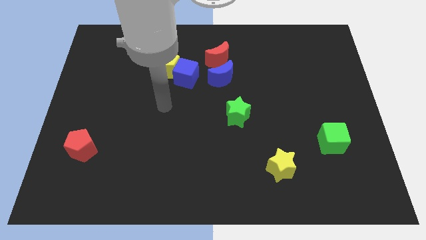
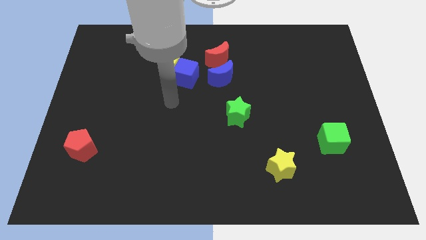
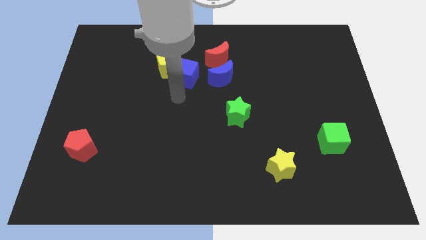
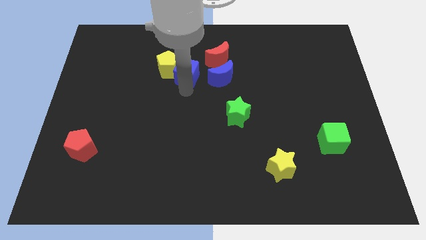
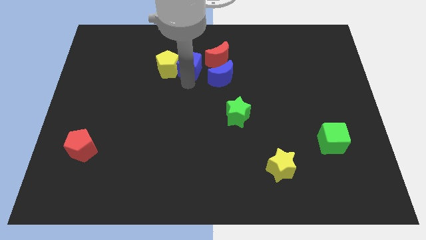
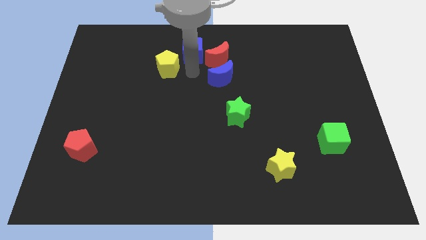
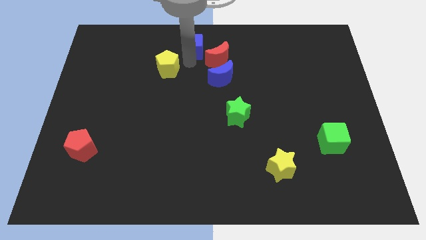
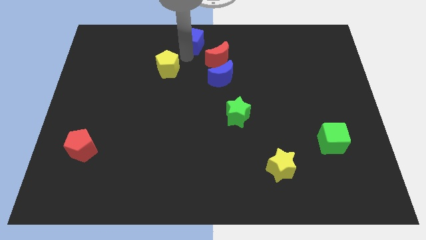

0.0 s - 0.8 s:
move the yellow pentagon away from the blue cube

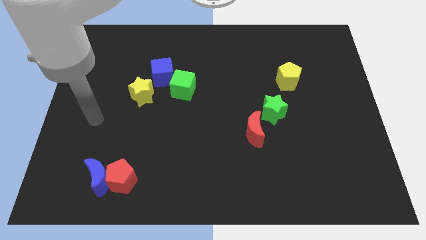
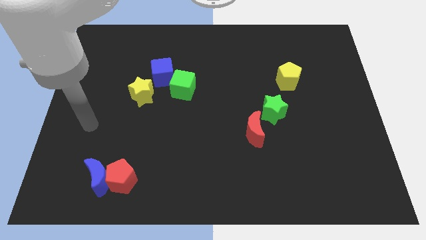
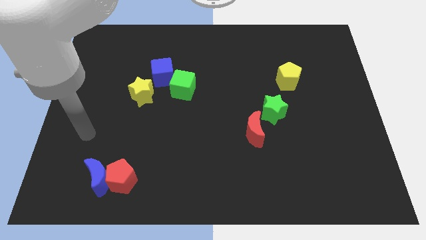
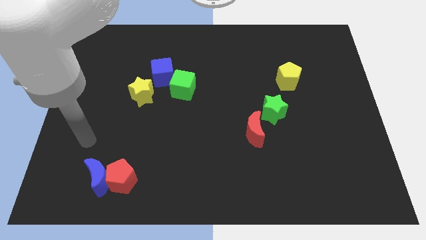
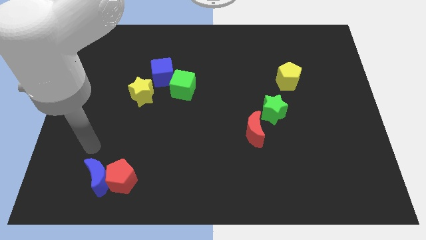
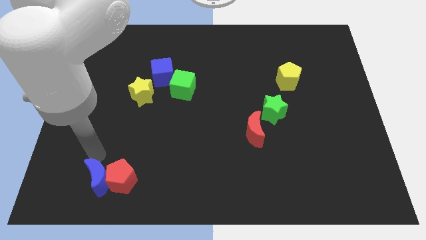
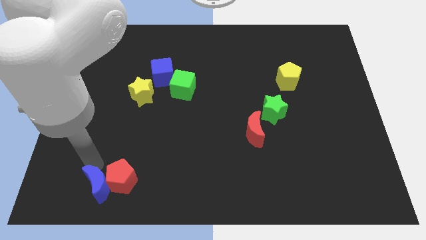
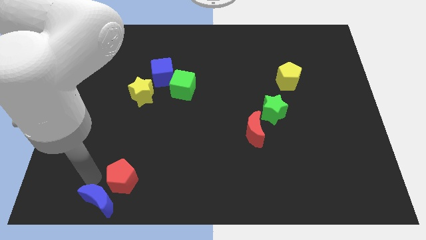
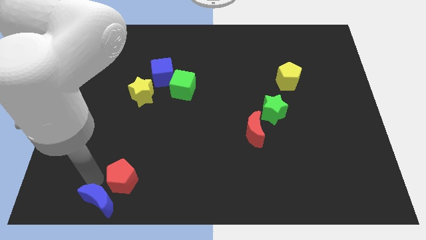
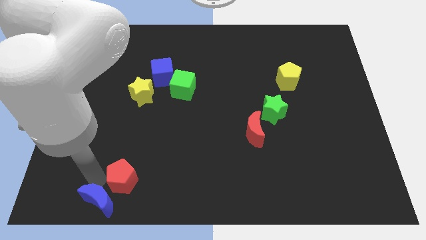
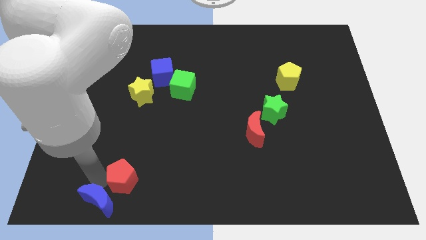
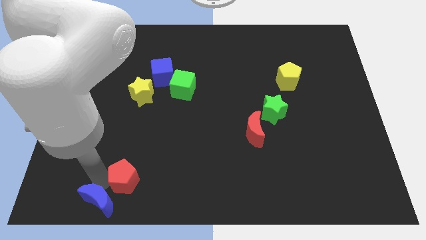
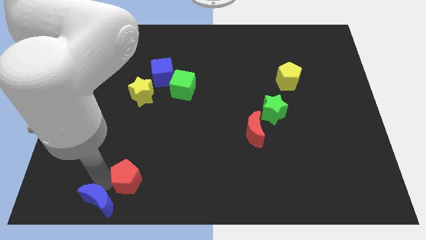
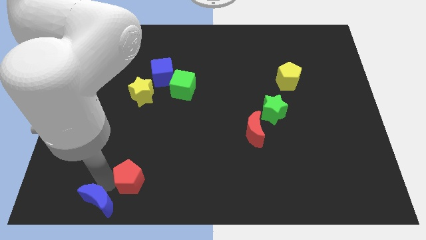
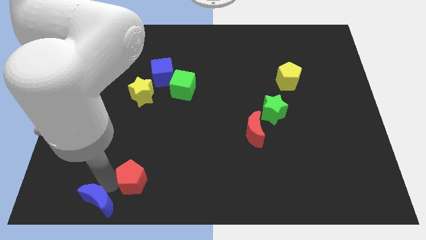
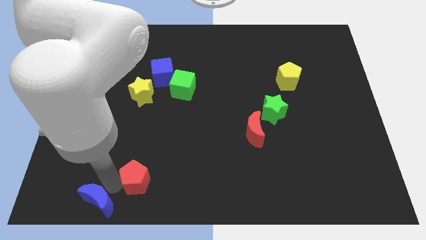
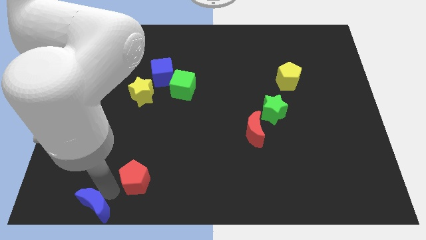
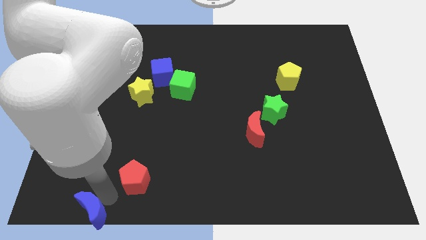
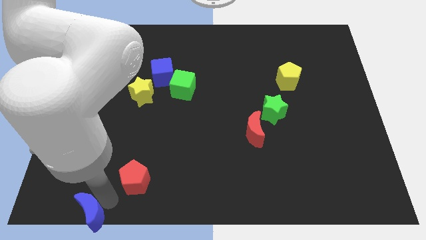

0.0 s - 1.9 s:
pull the red pentagon apart from the blue moon

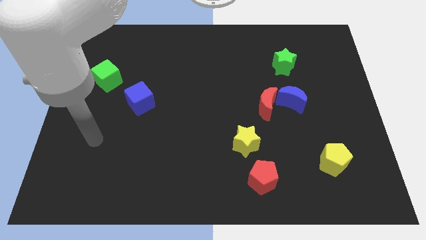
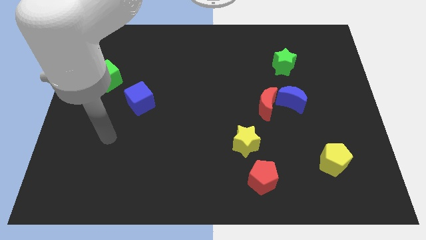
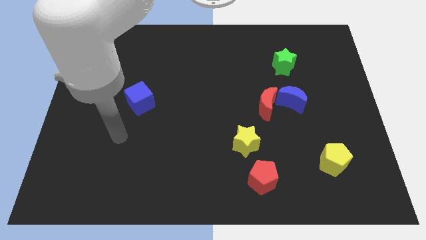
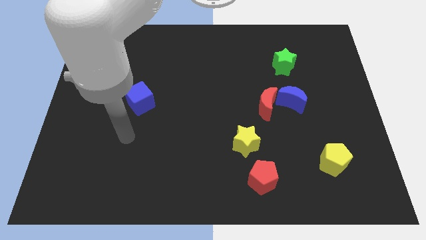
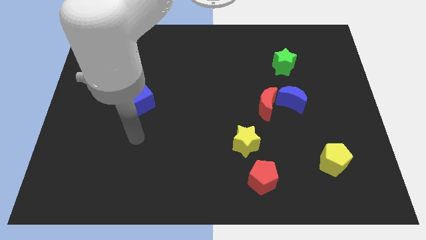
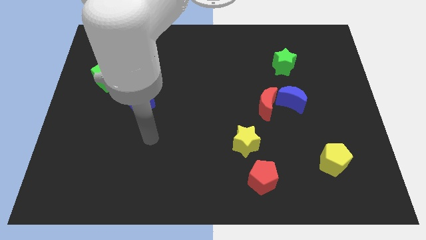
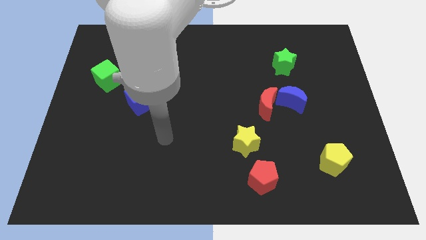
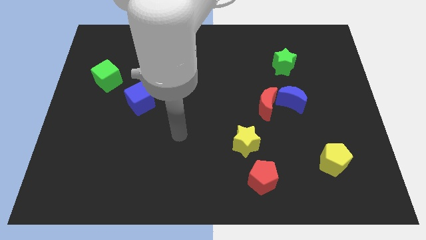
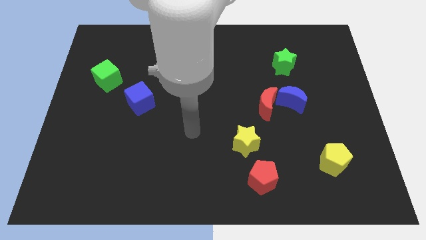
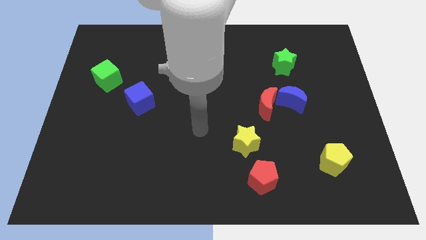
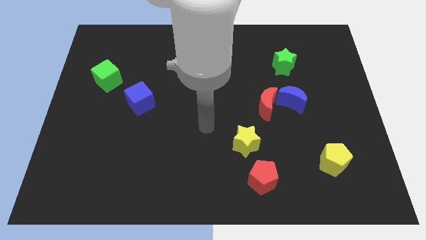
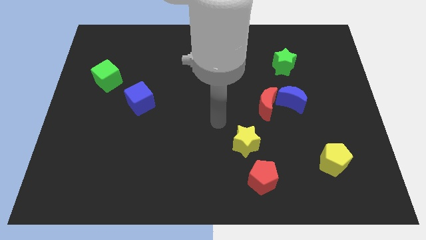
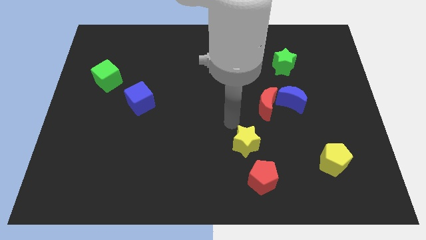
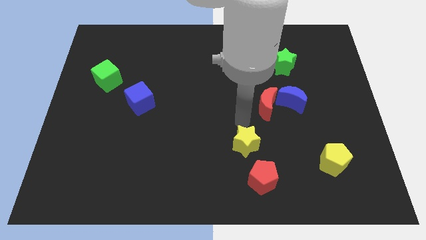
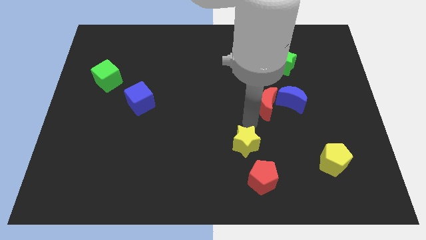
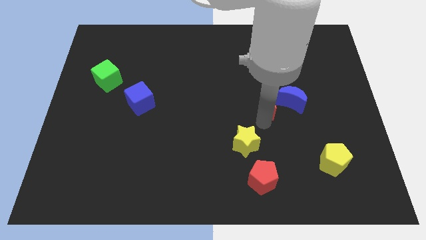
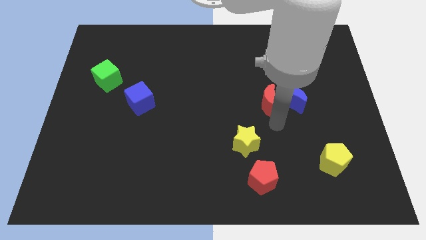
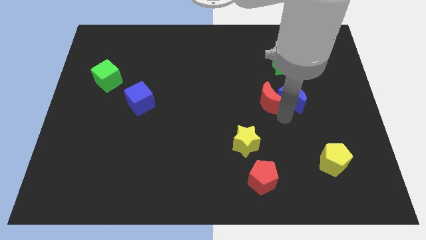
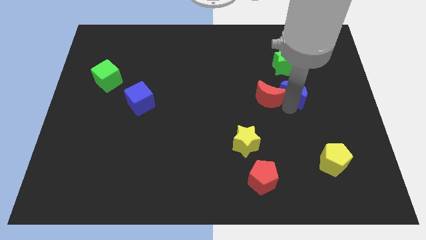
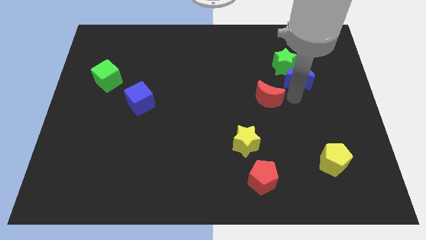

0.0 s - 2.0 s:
separate the red moon from the blue moon

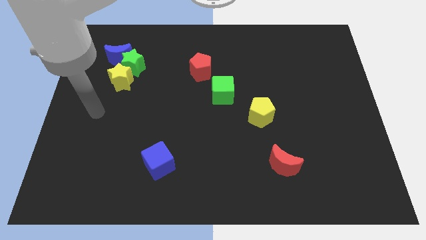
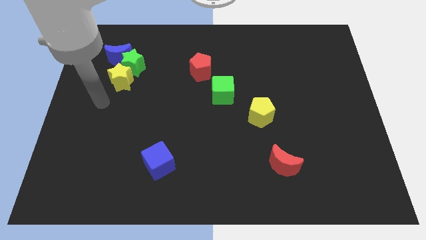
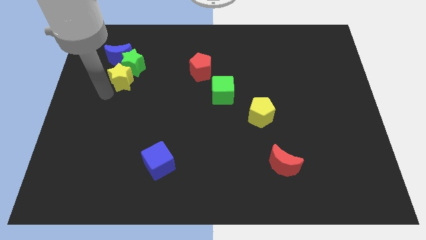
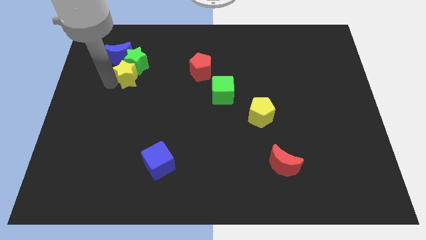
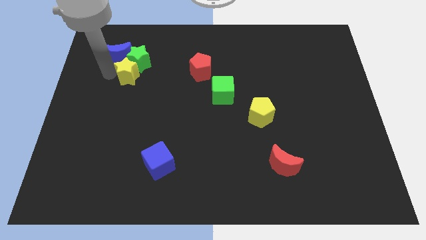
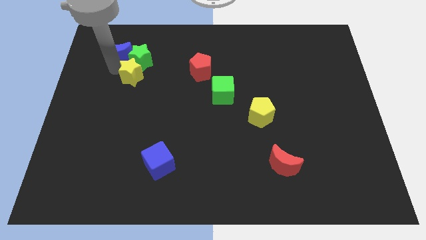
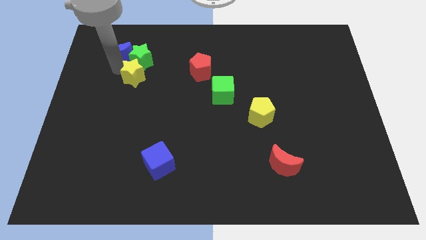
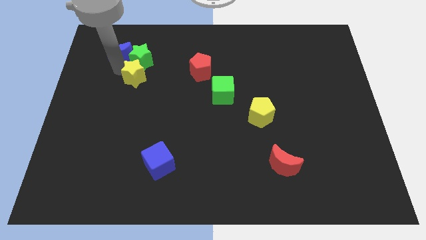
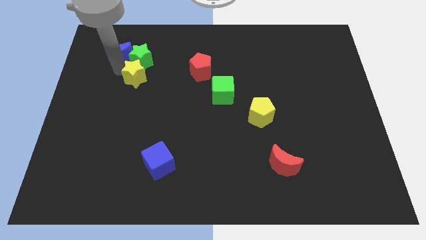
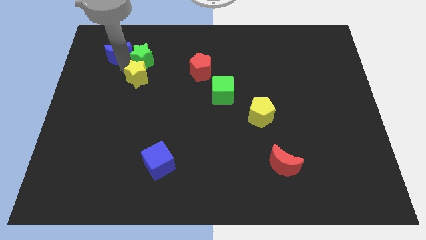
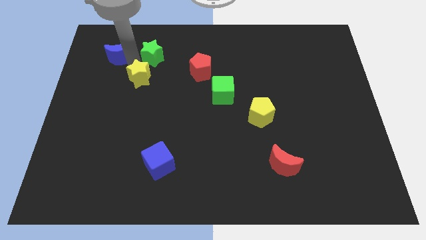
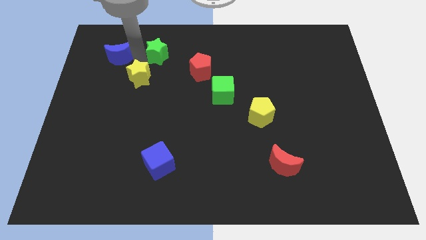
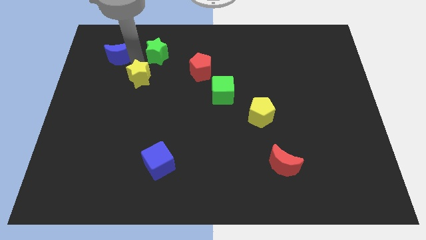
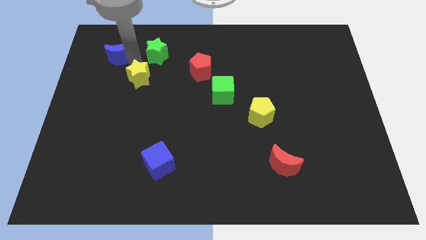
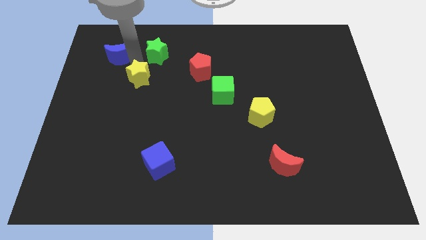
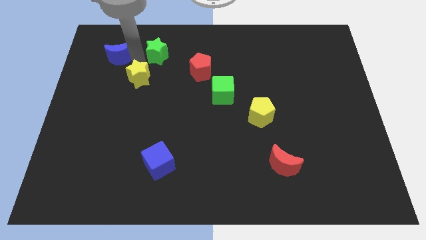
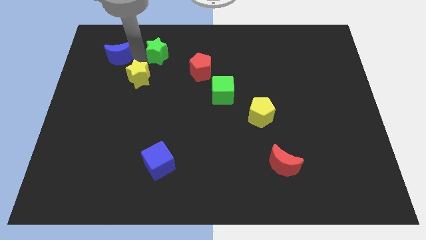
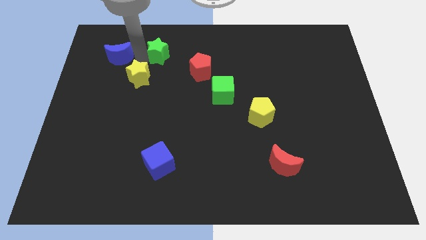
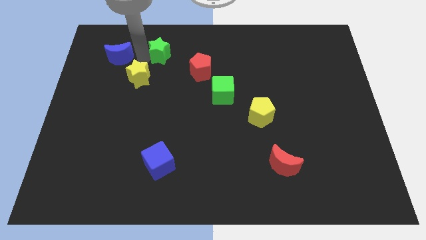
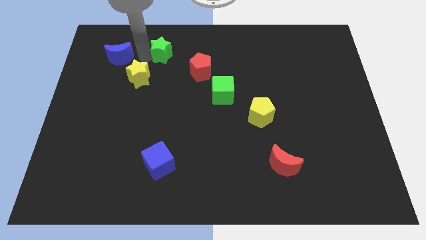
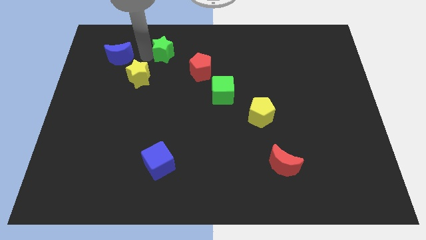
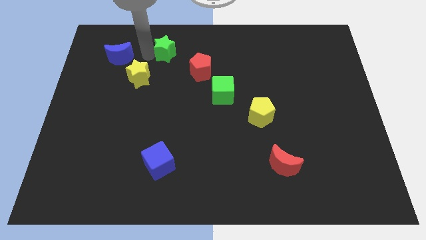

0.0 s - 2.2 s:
separate the green star from the blue moon and yellow star

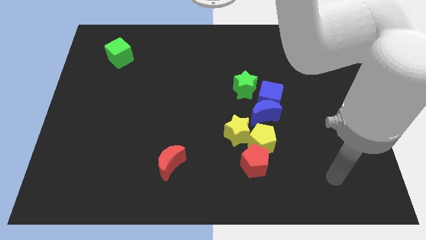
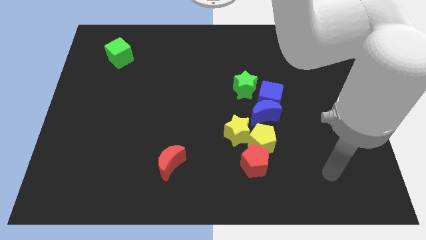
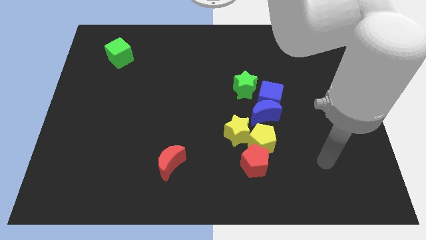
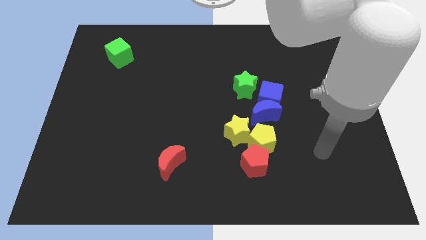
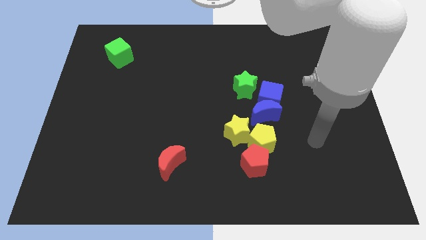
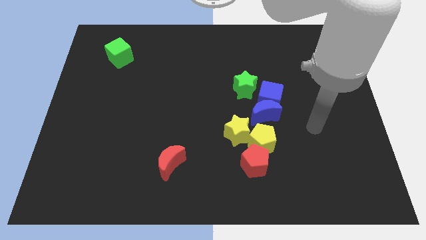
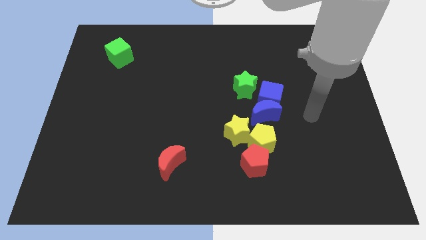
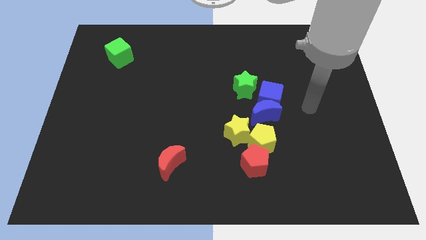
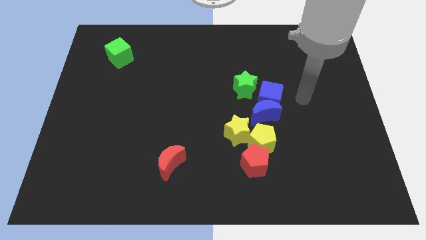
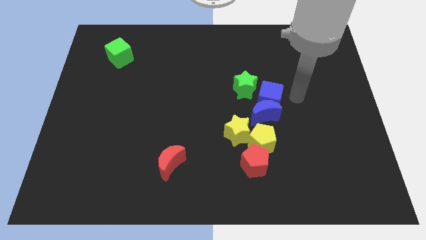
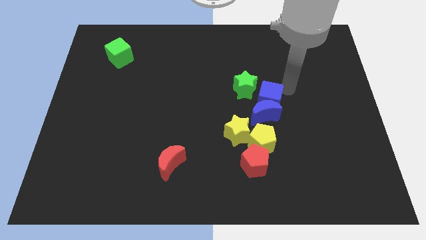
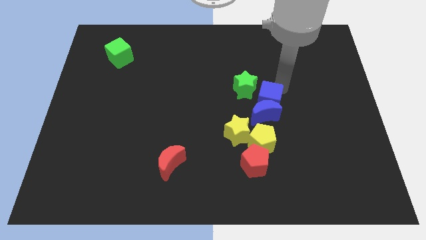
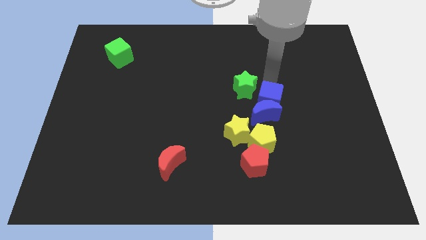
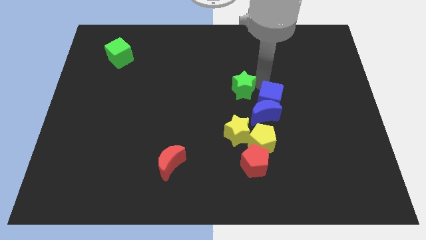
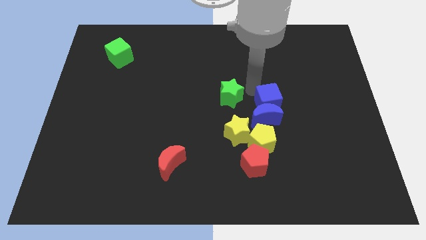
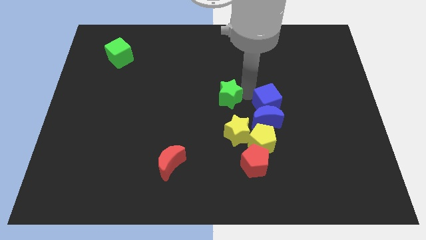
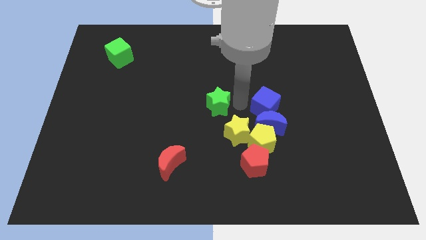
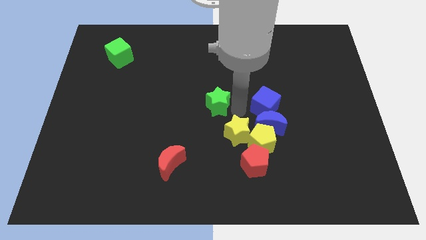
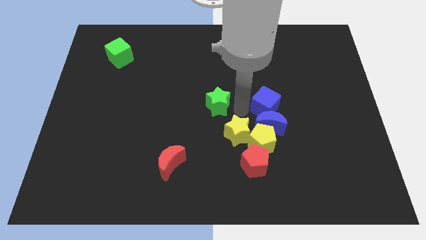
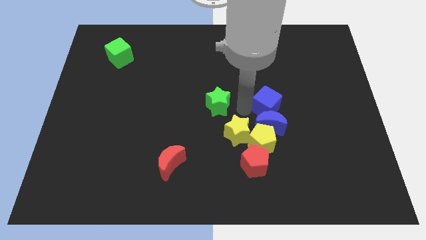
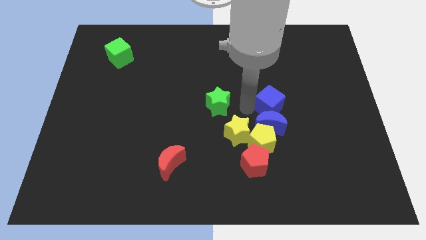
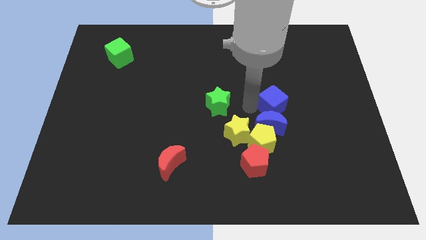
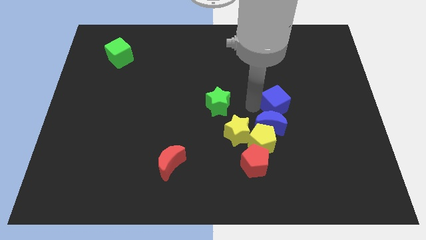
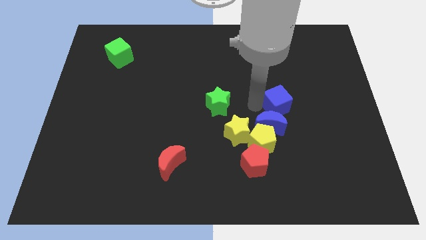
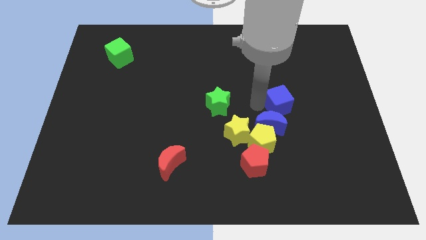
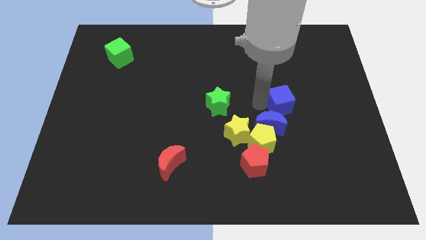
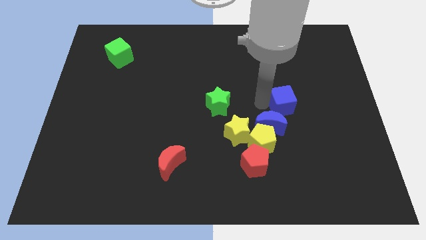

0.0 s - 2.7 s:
pull the blue cube apart from the blue moon and green star
